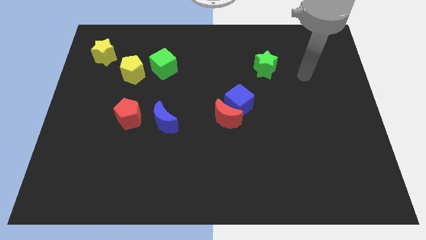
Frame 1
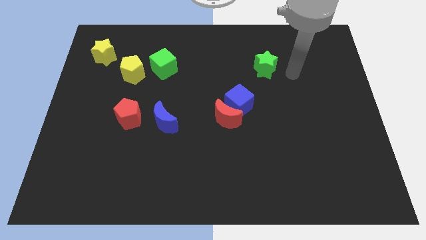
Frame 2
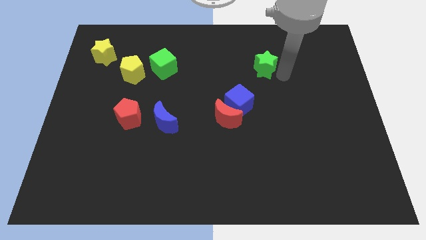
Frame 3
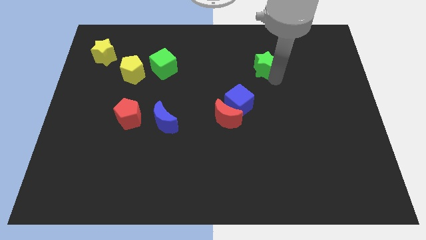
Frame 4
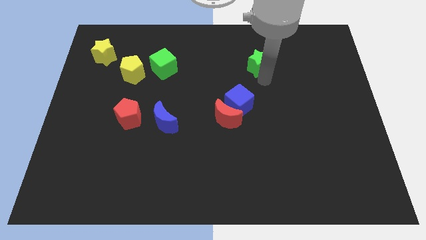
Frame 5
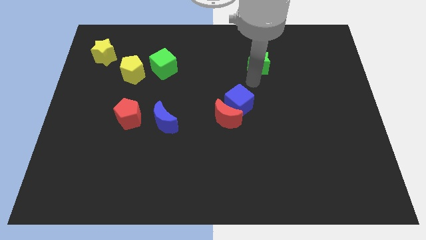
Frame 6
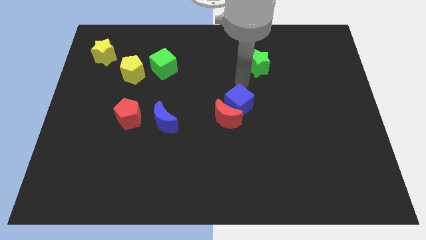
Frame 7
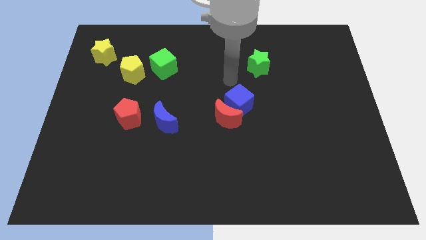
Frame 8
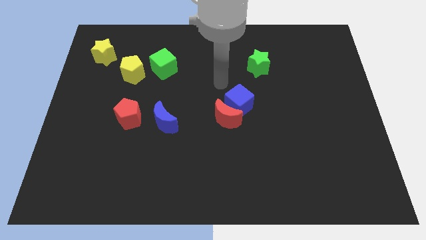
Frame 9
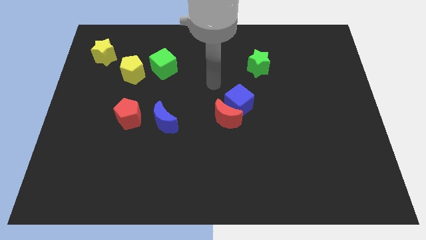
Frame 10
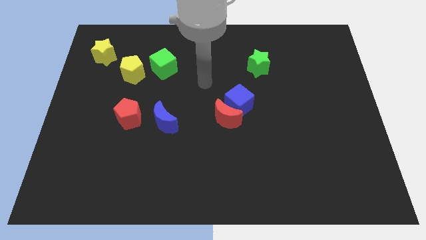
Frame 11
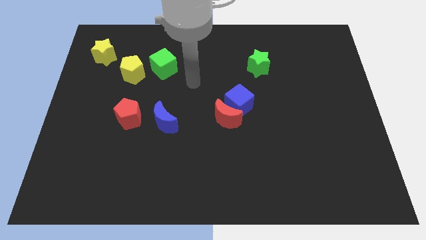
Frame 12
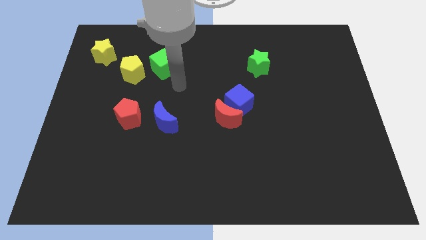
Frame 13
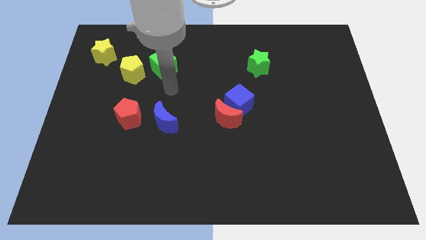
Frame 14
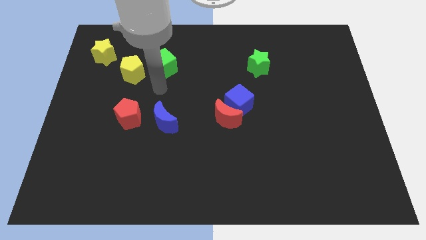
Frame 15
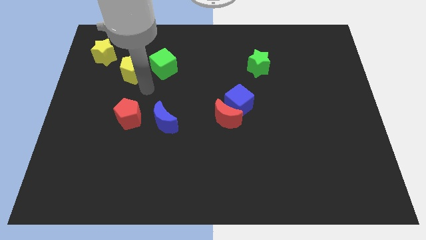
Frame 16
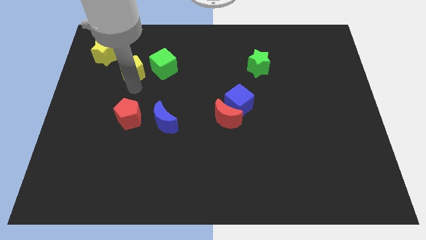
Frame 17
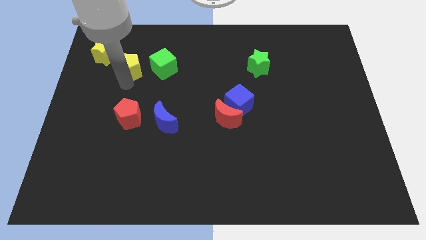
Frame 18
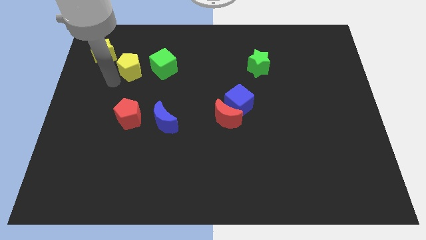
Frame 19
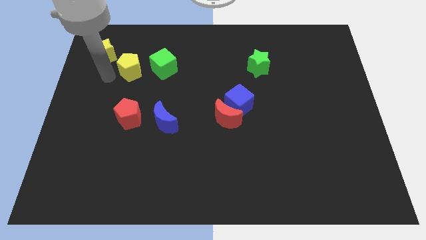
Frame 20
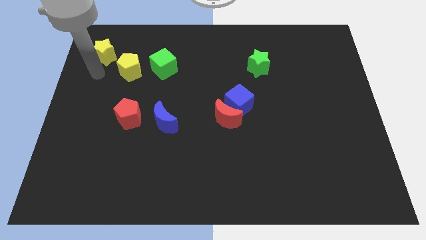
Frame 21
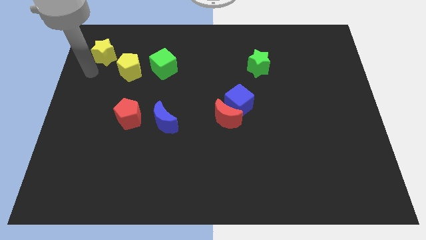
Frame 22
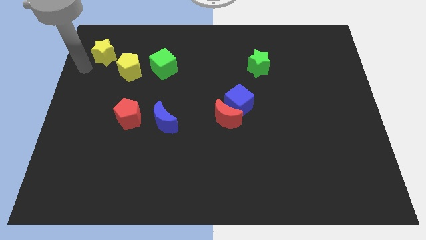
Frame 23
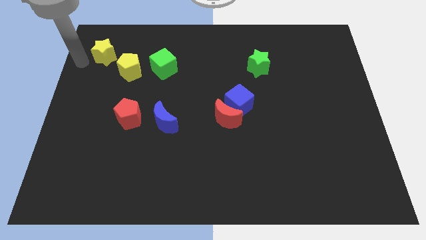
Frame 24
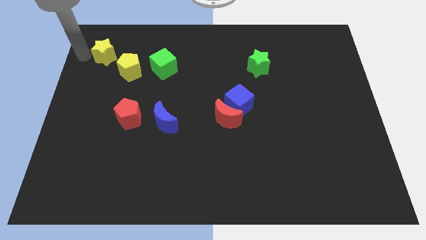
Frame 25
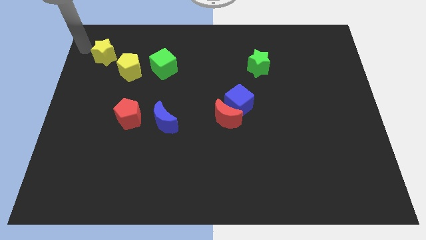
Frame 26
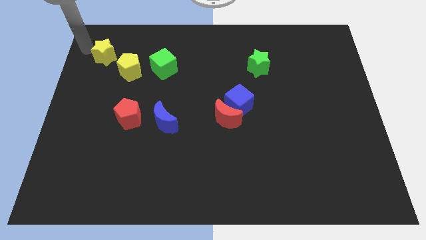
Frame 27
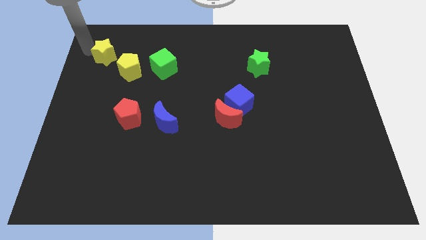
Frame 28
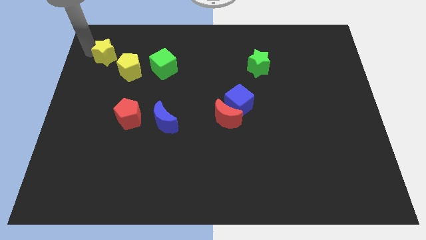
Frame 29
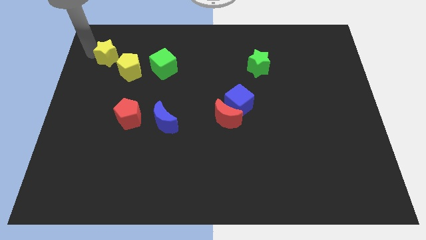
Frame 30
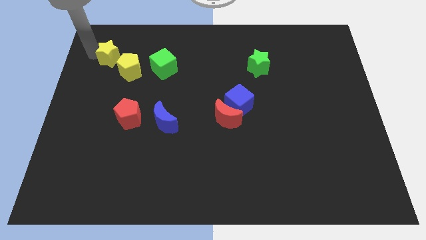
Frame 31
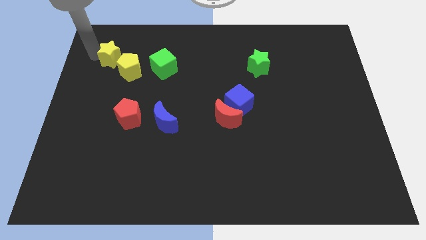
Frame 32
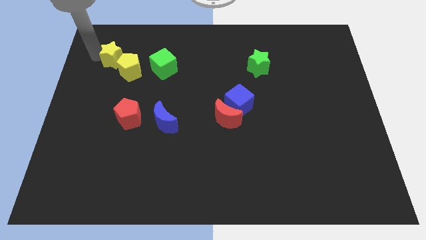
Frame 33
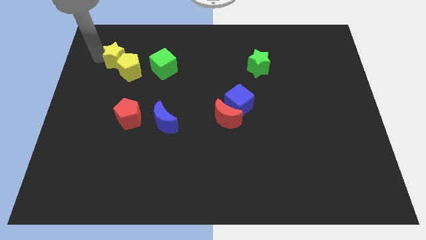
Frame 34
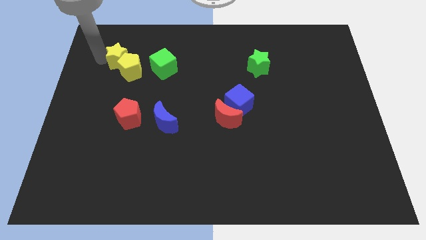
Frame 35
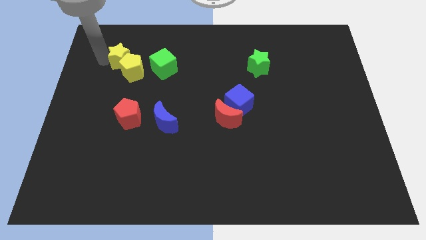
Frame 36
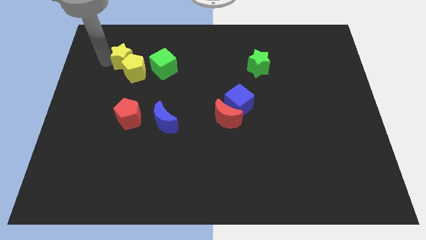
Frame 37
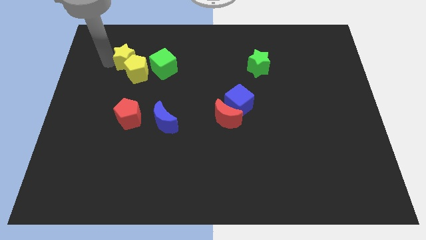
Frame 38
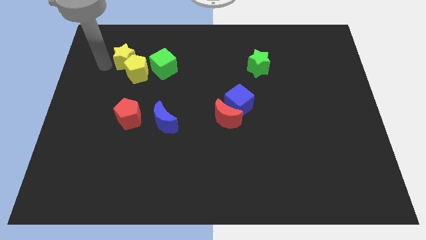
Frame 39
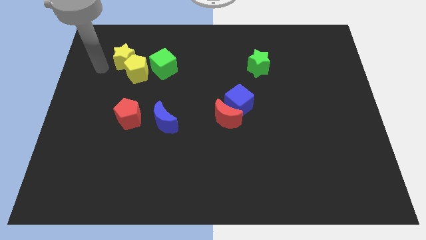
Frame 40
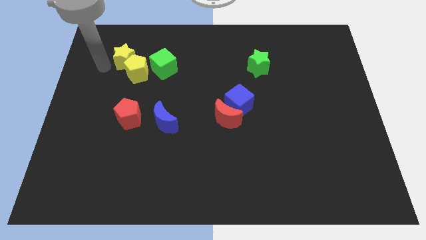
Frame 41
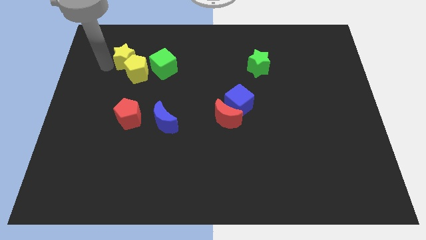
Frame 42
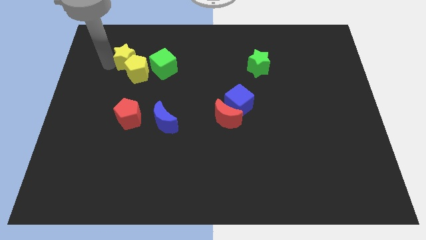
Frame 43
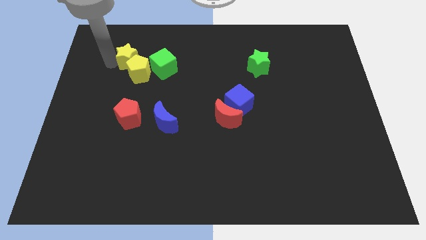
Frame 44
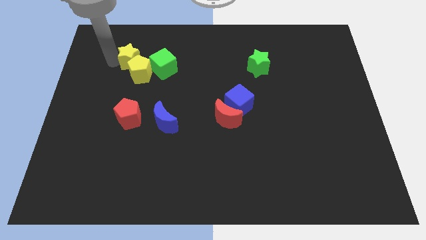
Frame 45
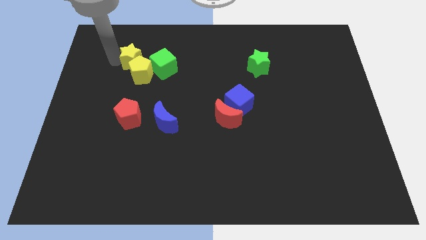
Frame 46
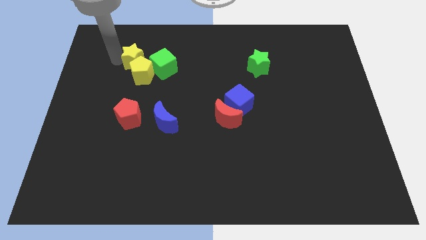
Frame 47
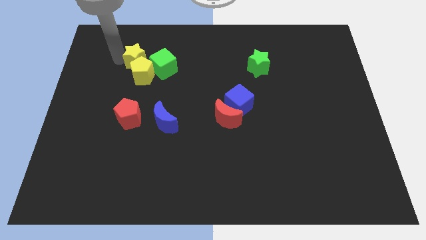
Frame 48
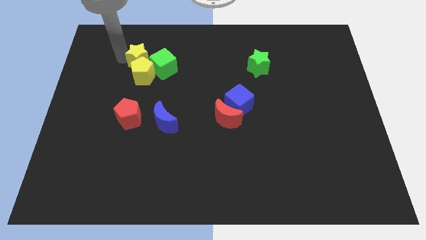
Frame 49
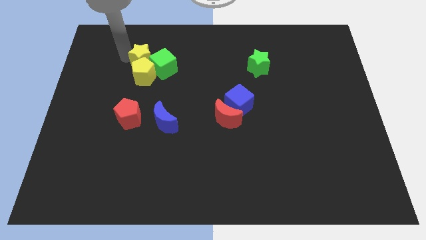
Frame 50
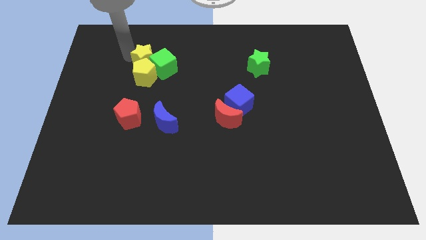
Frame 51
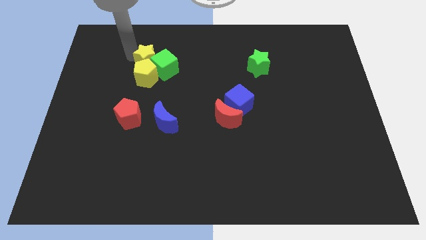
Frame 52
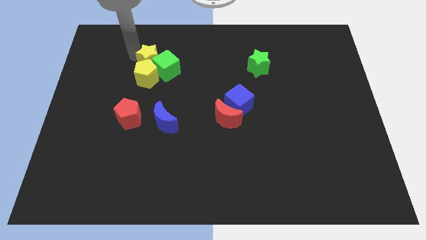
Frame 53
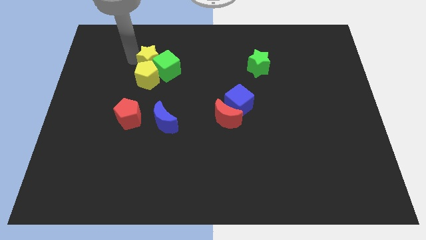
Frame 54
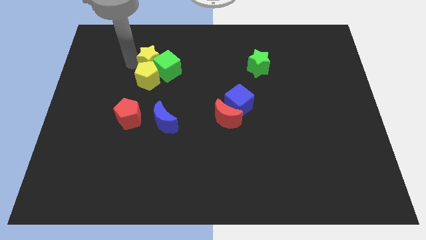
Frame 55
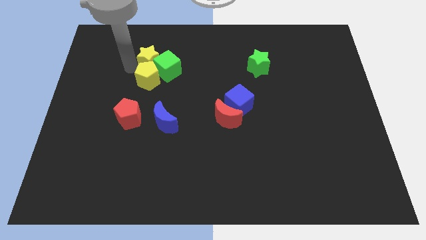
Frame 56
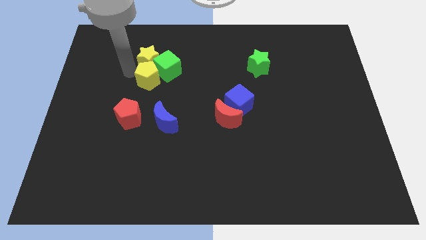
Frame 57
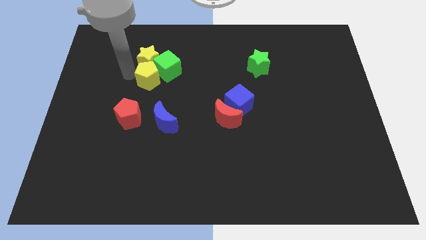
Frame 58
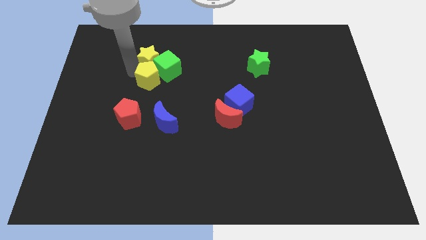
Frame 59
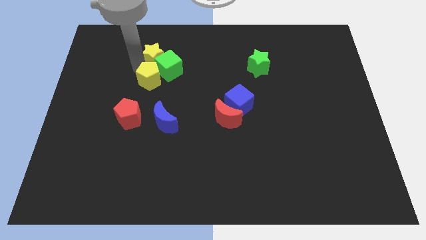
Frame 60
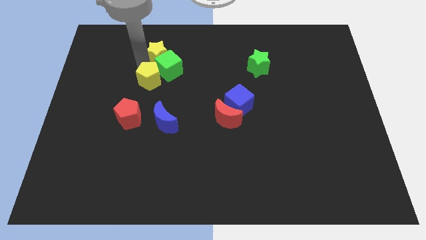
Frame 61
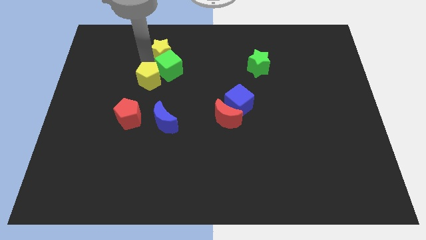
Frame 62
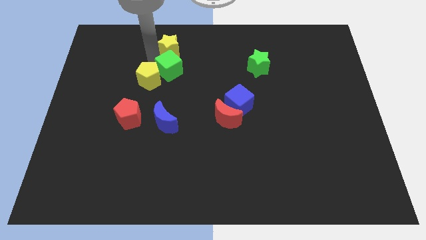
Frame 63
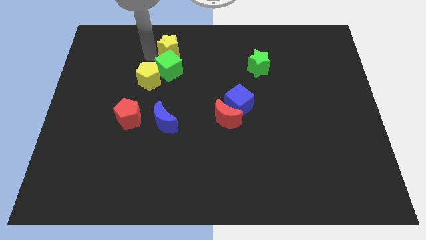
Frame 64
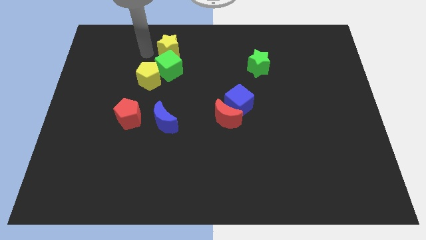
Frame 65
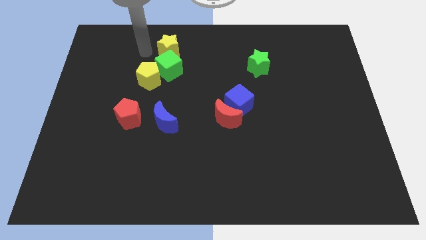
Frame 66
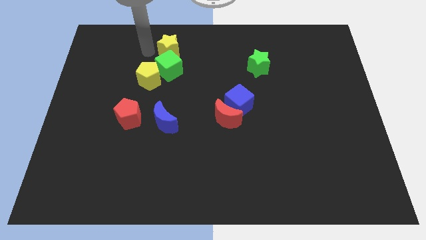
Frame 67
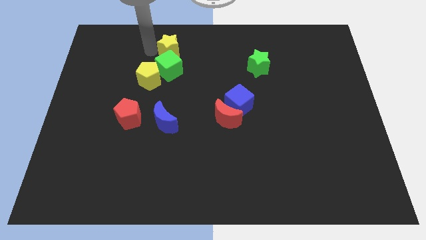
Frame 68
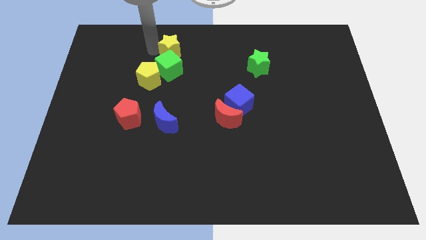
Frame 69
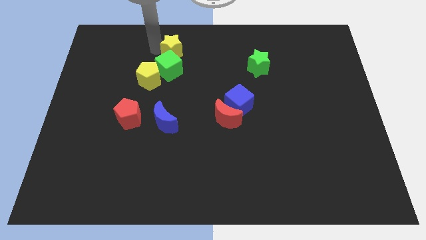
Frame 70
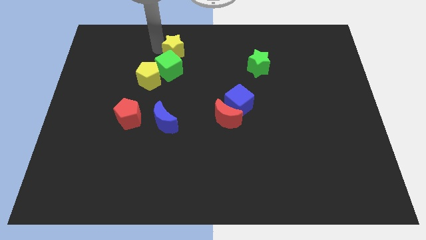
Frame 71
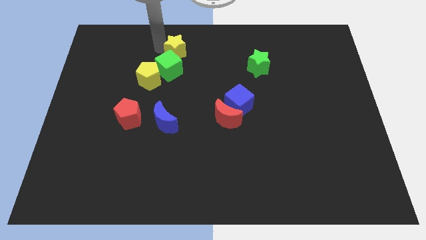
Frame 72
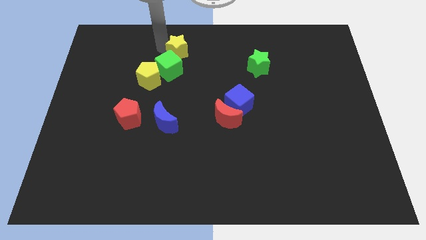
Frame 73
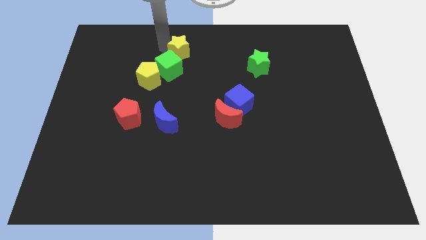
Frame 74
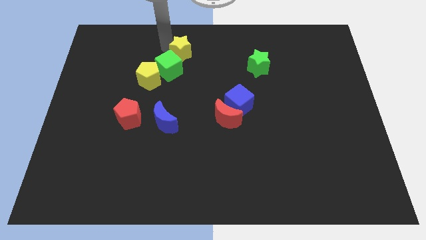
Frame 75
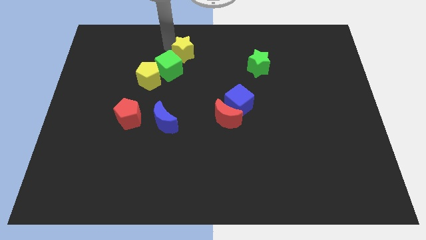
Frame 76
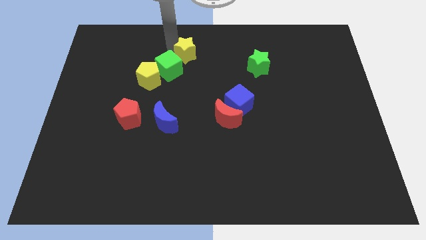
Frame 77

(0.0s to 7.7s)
push the yellow star to the towards your base

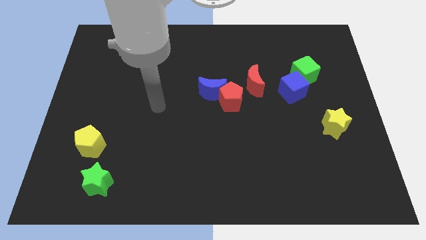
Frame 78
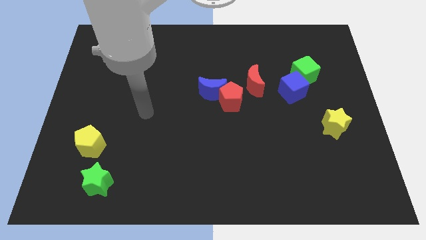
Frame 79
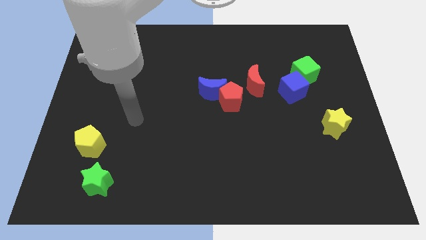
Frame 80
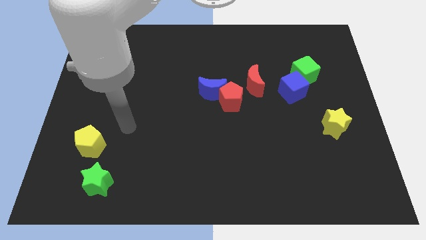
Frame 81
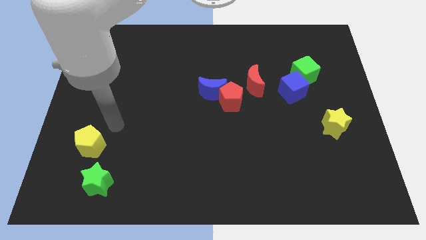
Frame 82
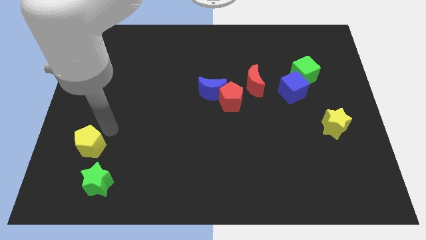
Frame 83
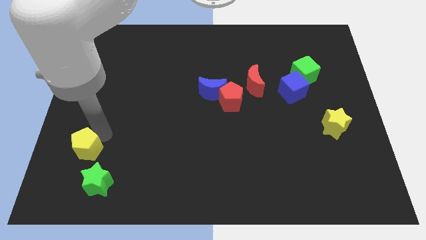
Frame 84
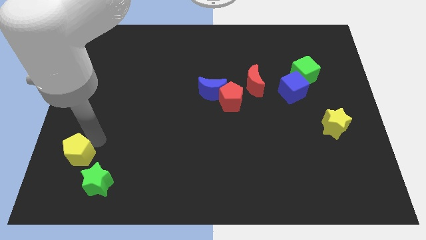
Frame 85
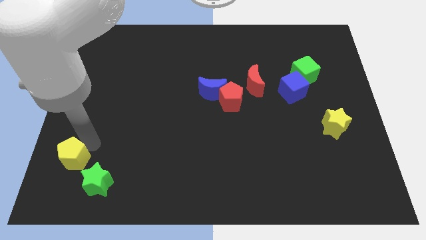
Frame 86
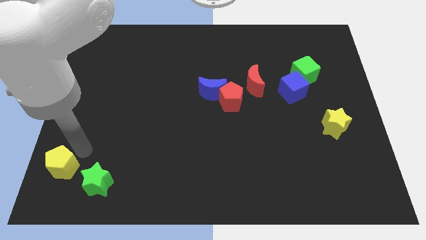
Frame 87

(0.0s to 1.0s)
move the yellow pentagon to the bottom left of the board
